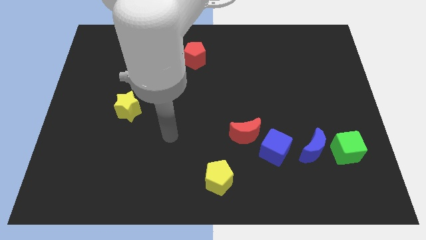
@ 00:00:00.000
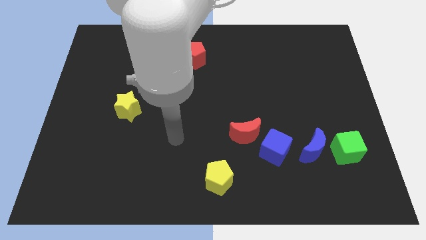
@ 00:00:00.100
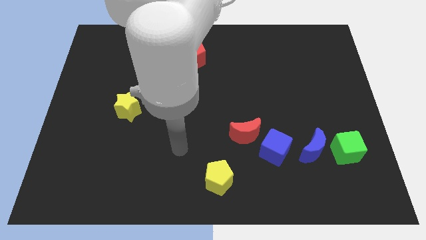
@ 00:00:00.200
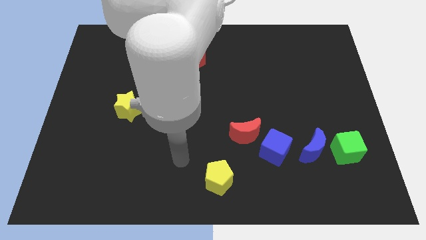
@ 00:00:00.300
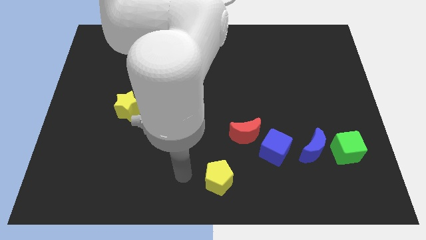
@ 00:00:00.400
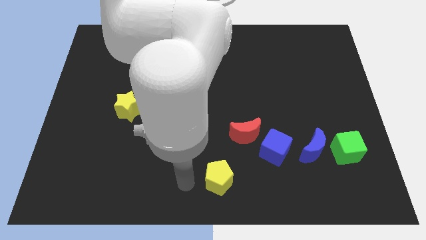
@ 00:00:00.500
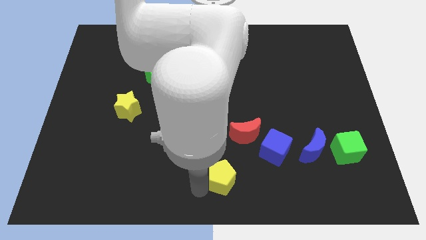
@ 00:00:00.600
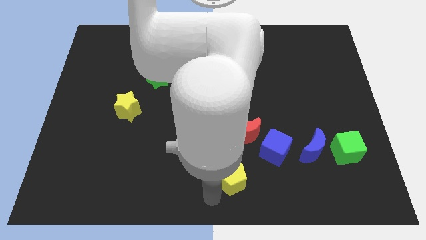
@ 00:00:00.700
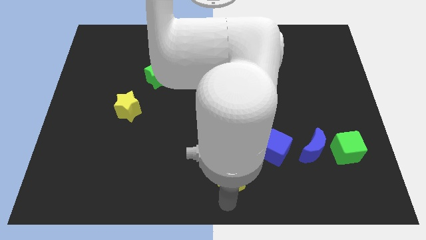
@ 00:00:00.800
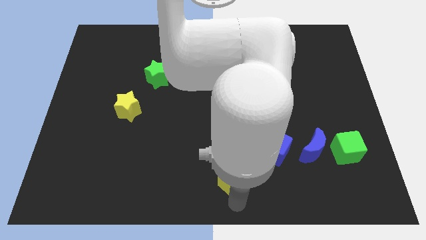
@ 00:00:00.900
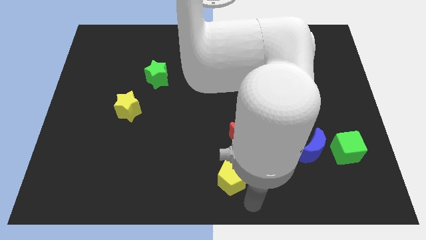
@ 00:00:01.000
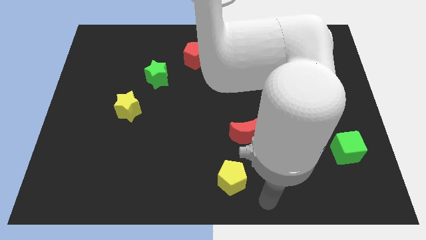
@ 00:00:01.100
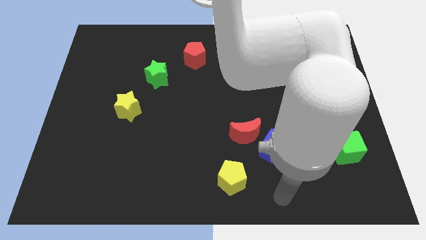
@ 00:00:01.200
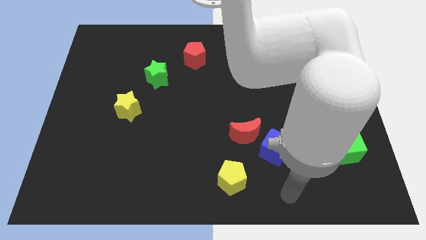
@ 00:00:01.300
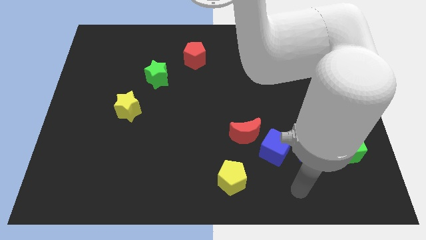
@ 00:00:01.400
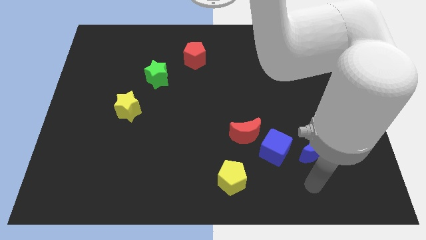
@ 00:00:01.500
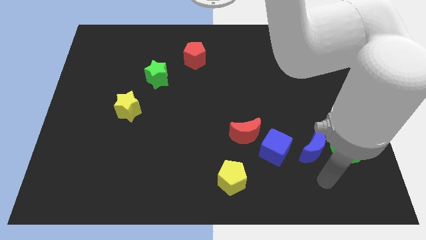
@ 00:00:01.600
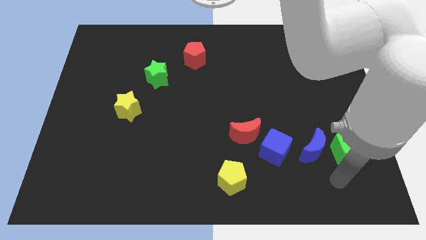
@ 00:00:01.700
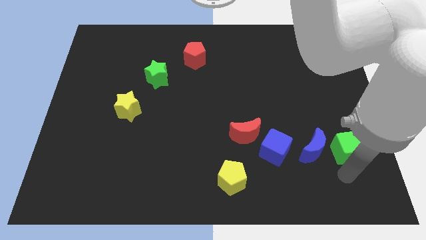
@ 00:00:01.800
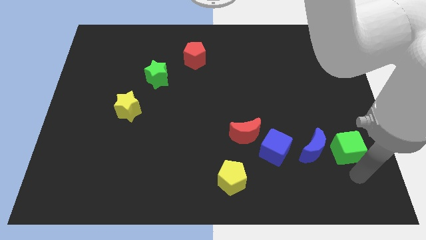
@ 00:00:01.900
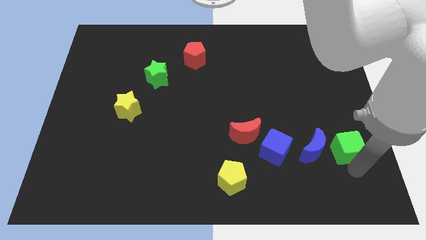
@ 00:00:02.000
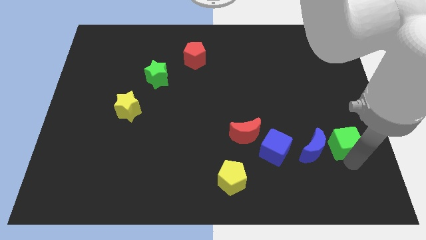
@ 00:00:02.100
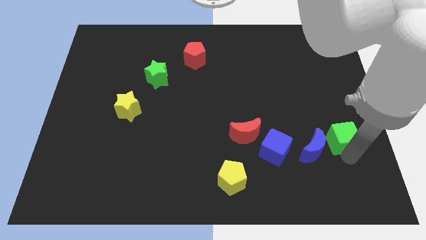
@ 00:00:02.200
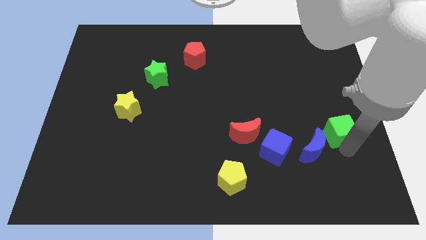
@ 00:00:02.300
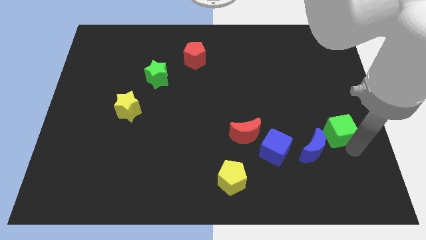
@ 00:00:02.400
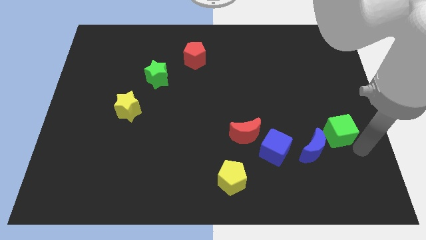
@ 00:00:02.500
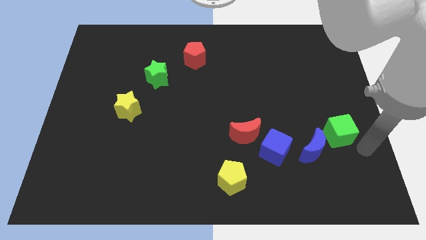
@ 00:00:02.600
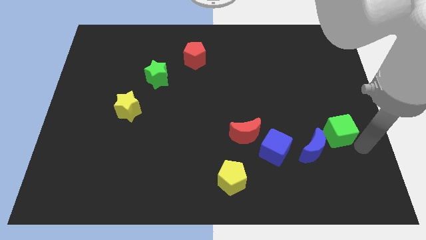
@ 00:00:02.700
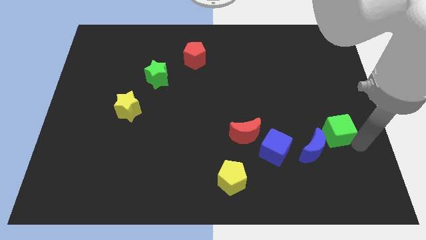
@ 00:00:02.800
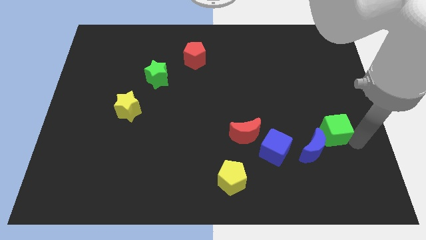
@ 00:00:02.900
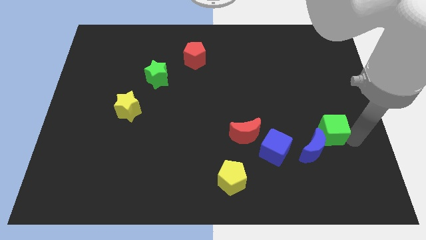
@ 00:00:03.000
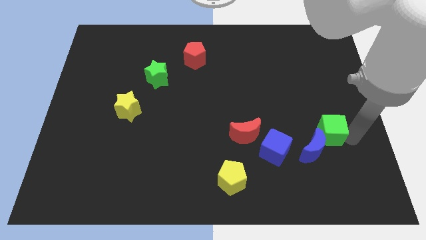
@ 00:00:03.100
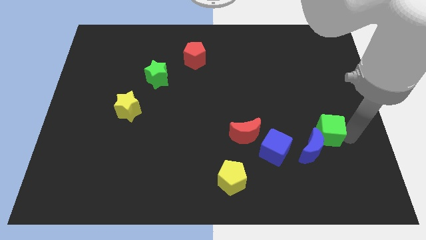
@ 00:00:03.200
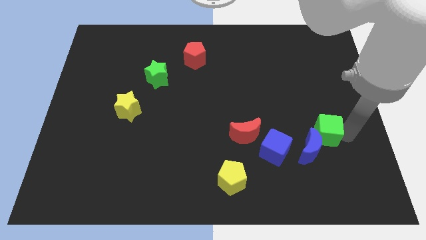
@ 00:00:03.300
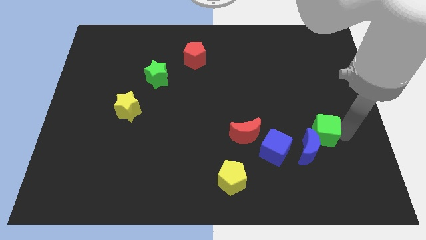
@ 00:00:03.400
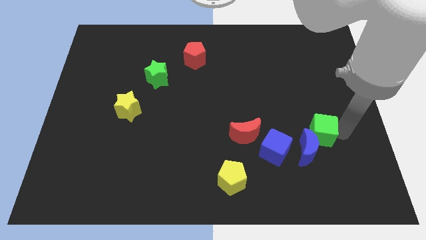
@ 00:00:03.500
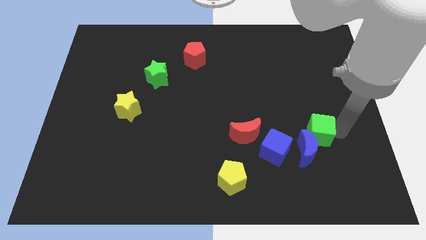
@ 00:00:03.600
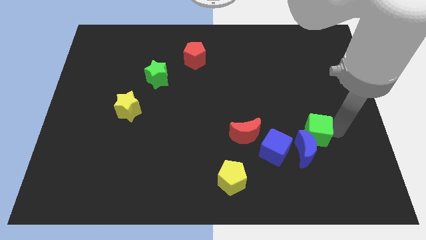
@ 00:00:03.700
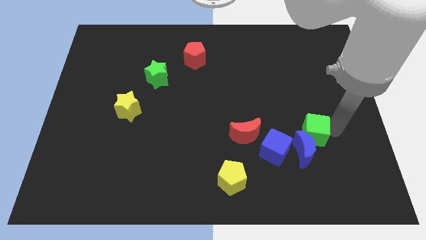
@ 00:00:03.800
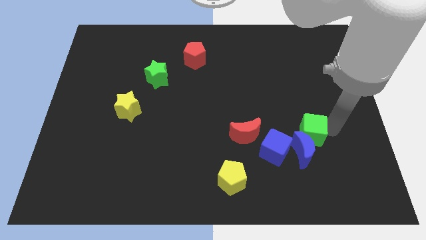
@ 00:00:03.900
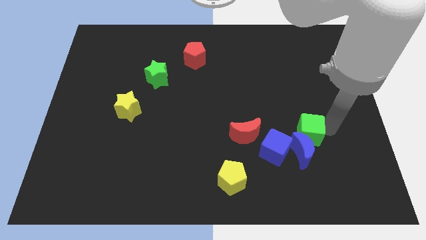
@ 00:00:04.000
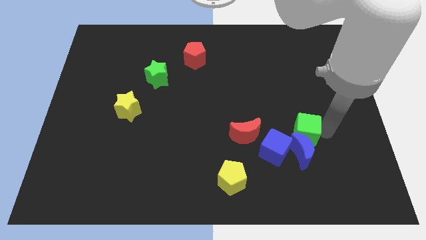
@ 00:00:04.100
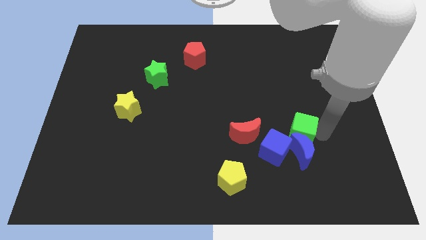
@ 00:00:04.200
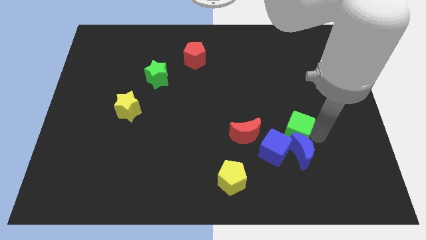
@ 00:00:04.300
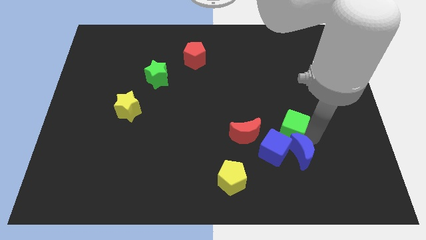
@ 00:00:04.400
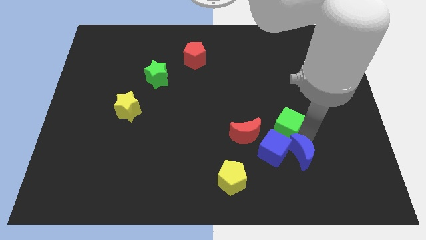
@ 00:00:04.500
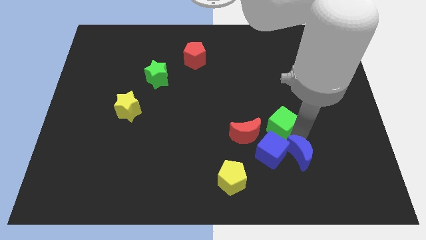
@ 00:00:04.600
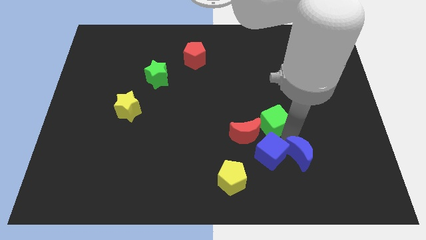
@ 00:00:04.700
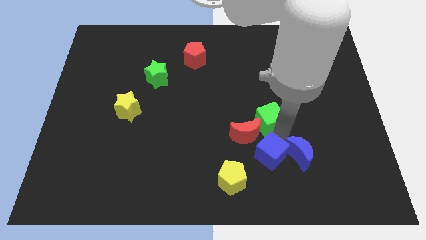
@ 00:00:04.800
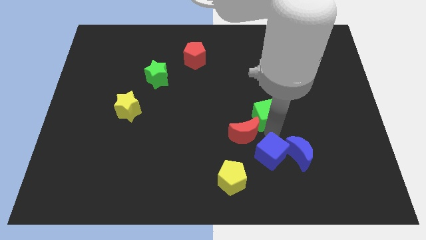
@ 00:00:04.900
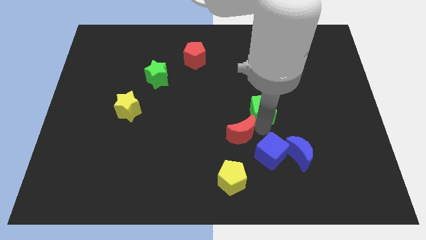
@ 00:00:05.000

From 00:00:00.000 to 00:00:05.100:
slide the green cube to the middle of the board

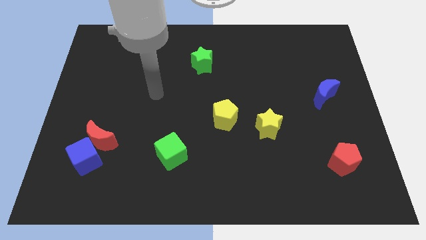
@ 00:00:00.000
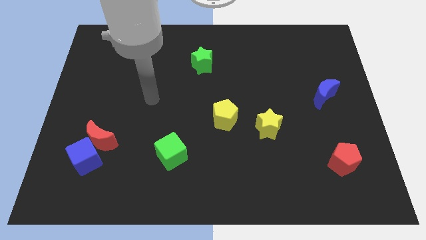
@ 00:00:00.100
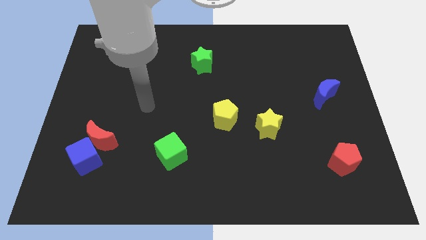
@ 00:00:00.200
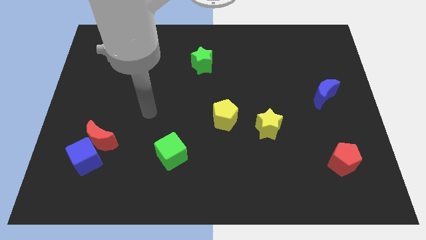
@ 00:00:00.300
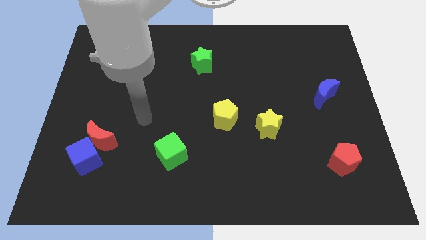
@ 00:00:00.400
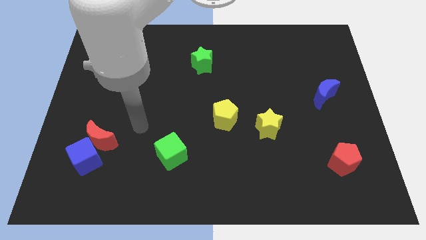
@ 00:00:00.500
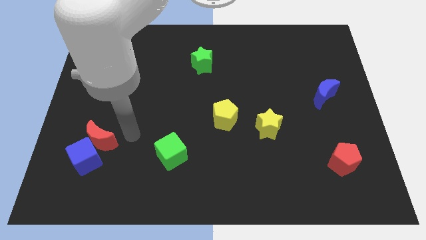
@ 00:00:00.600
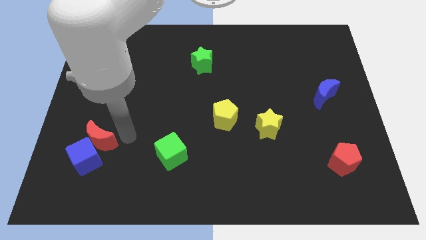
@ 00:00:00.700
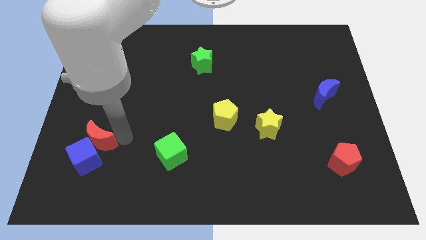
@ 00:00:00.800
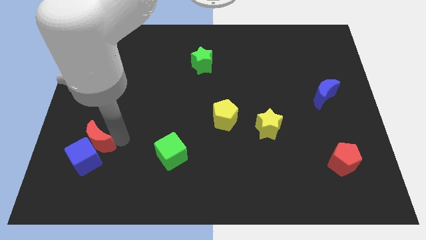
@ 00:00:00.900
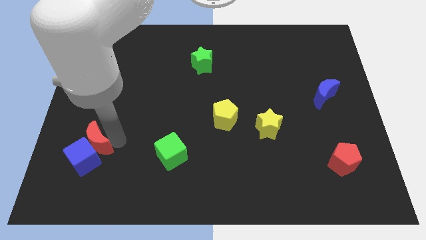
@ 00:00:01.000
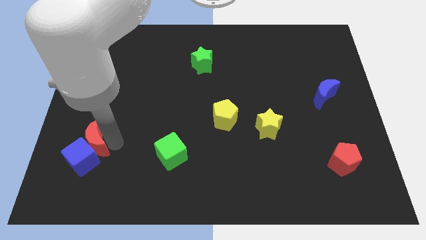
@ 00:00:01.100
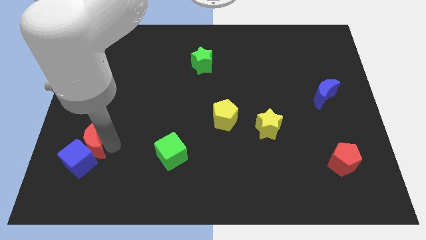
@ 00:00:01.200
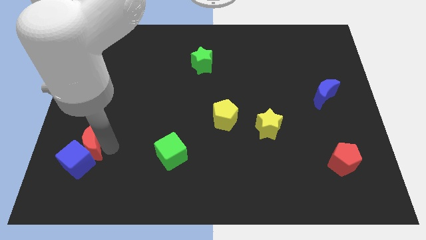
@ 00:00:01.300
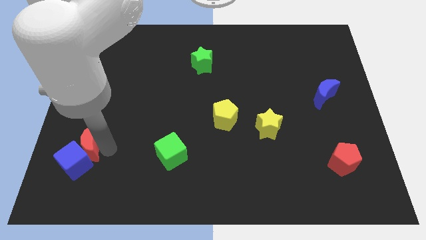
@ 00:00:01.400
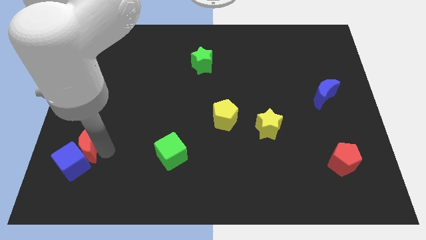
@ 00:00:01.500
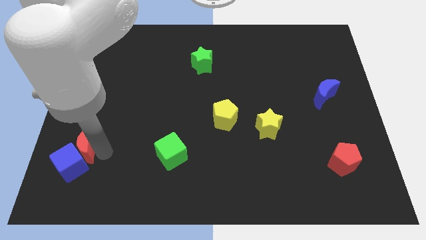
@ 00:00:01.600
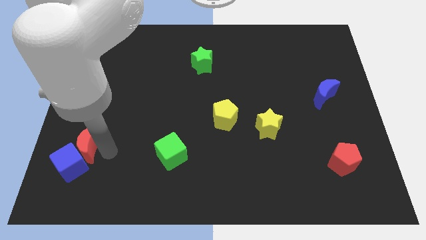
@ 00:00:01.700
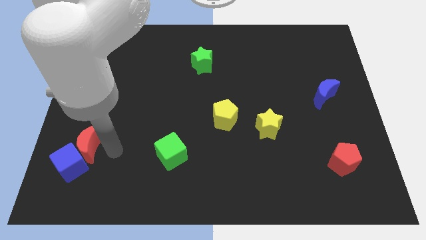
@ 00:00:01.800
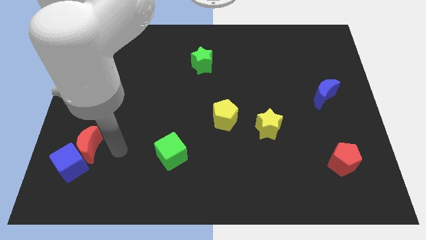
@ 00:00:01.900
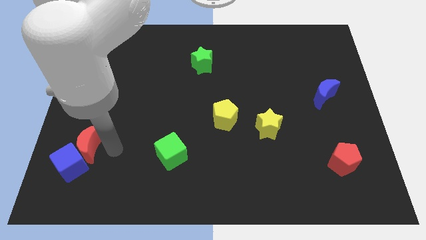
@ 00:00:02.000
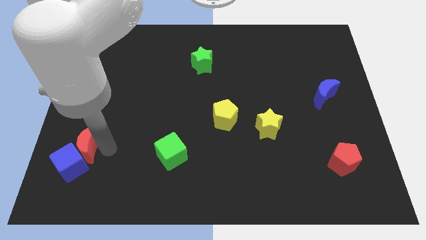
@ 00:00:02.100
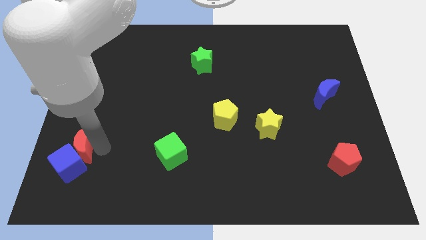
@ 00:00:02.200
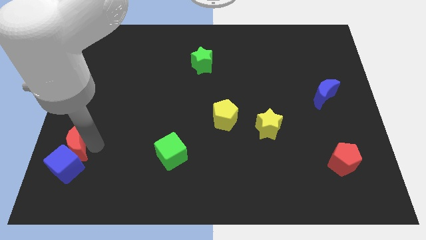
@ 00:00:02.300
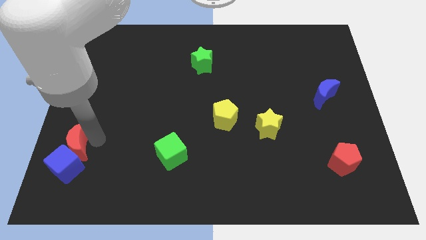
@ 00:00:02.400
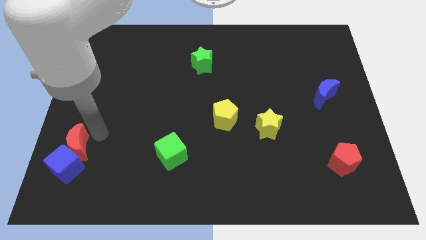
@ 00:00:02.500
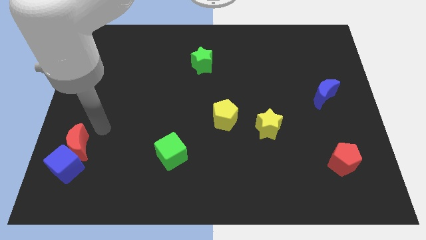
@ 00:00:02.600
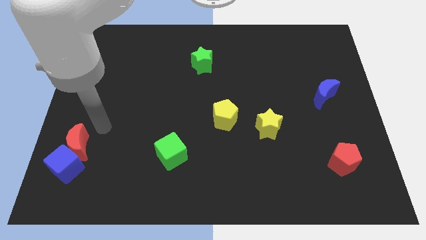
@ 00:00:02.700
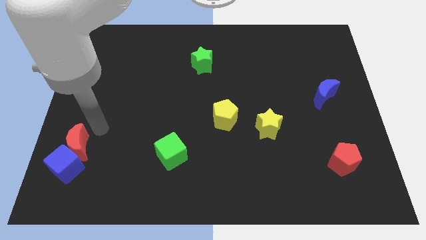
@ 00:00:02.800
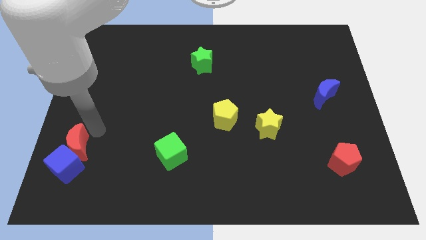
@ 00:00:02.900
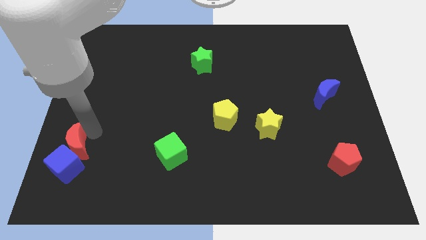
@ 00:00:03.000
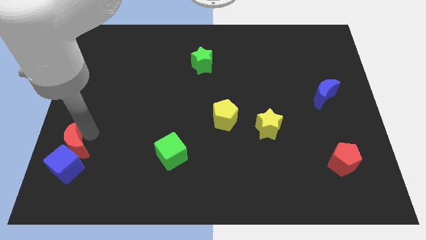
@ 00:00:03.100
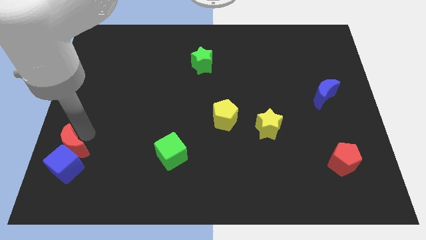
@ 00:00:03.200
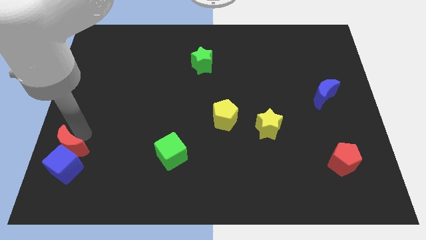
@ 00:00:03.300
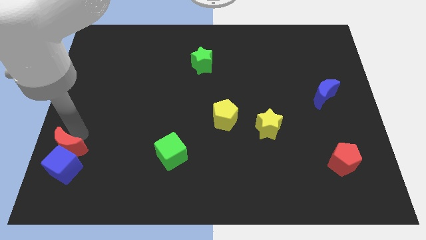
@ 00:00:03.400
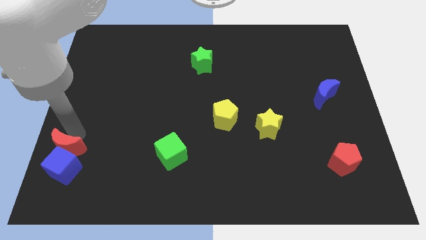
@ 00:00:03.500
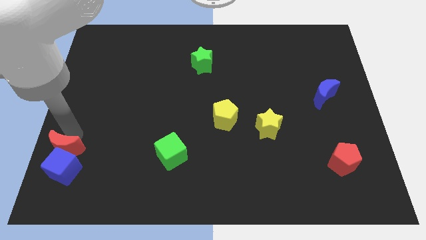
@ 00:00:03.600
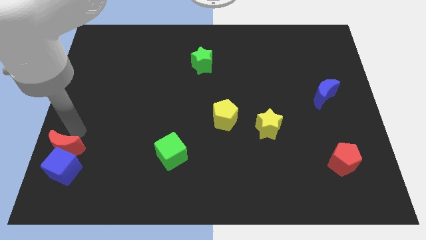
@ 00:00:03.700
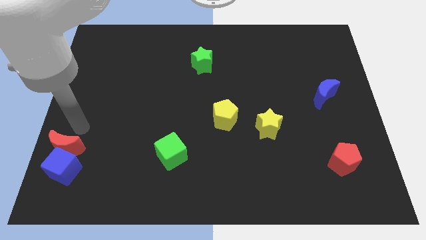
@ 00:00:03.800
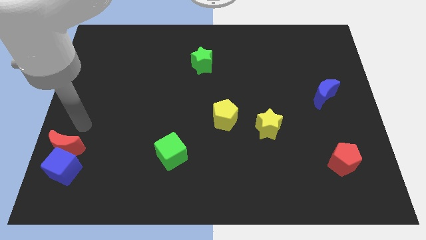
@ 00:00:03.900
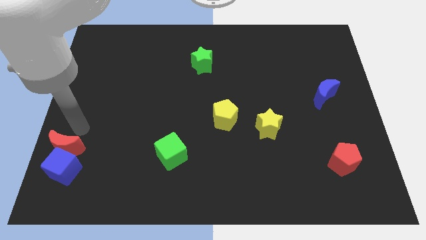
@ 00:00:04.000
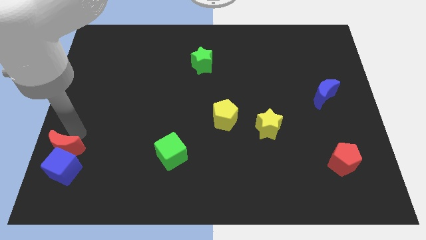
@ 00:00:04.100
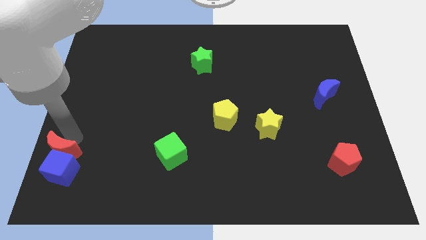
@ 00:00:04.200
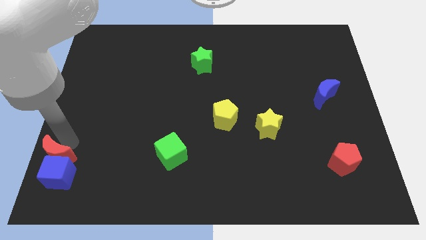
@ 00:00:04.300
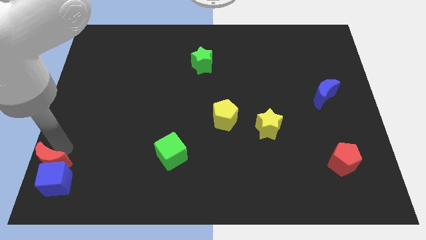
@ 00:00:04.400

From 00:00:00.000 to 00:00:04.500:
put the red moon to the lower left corner
